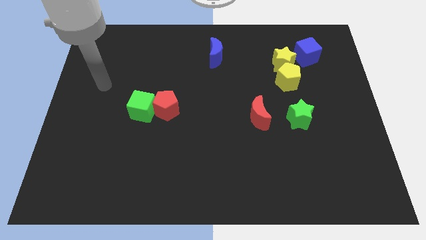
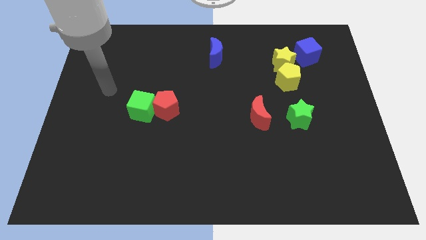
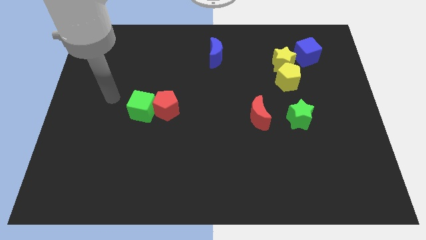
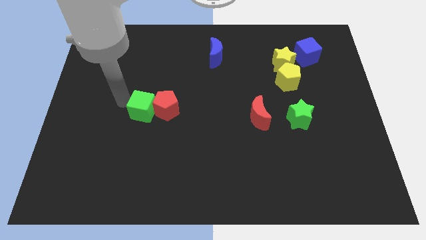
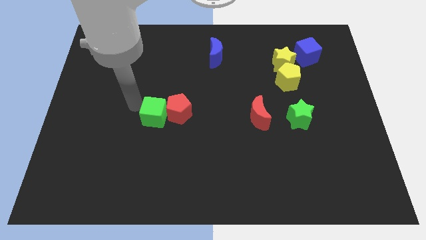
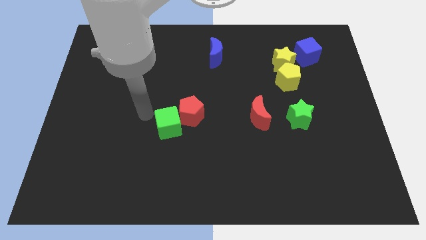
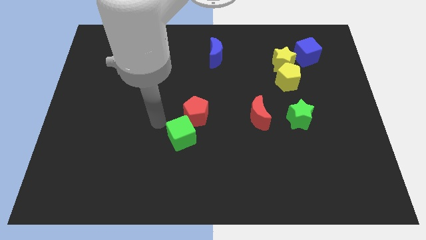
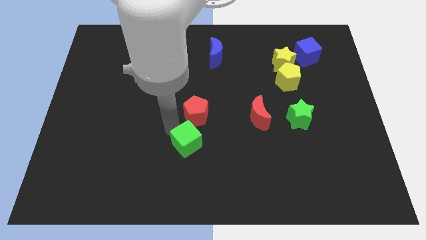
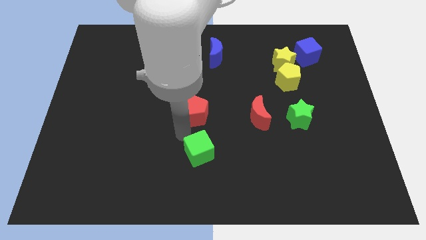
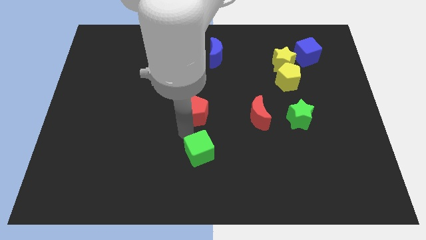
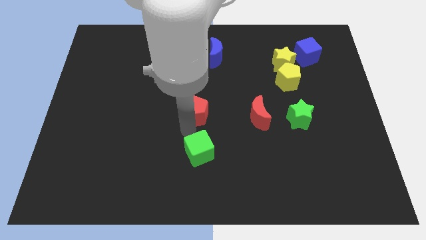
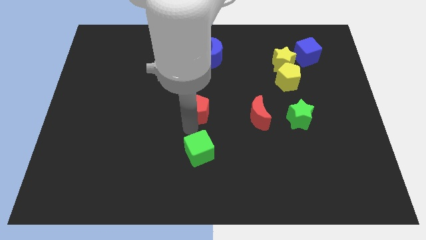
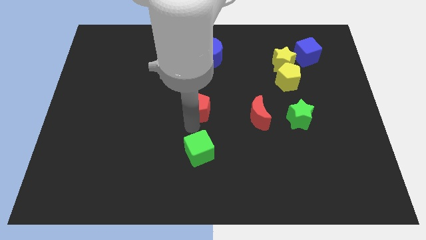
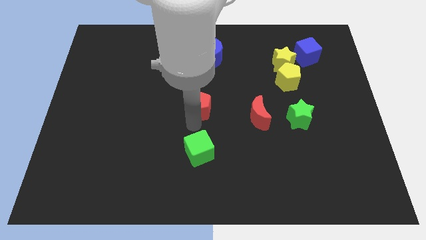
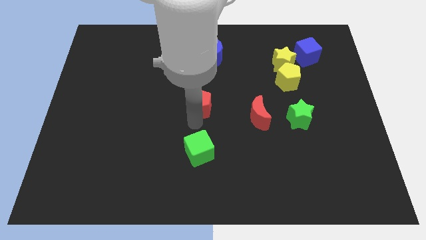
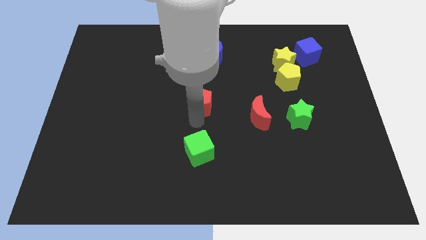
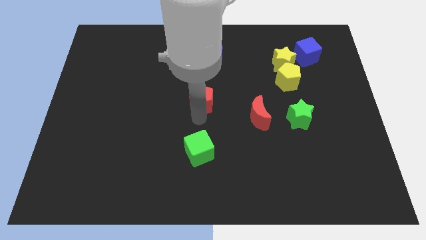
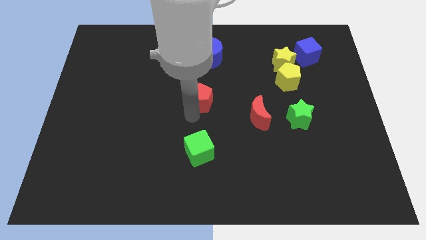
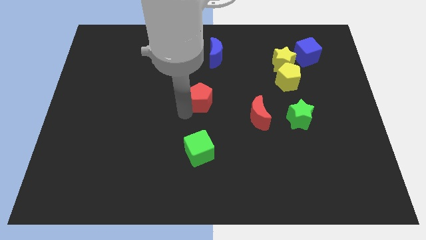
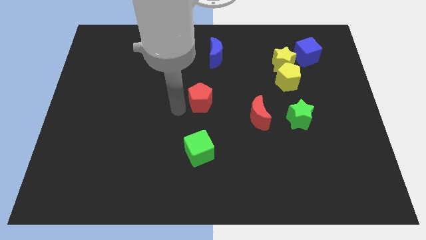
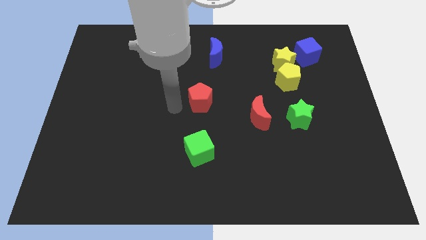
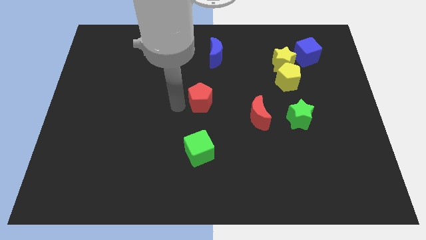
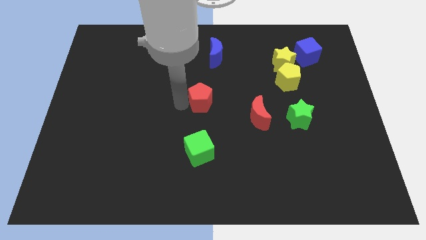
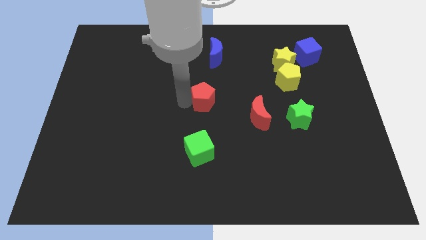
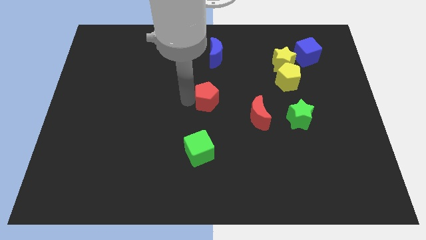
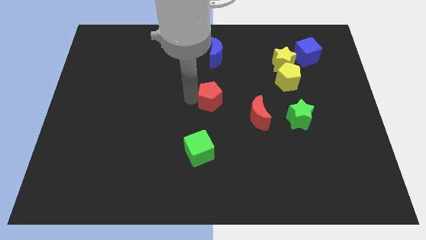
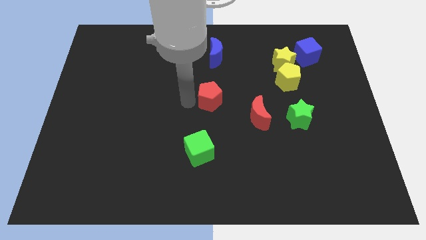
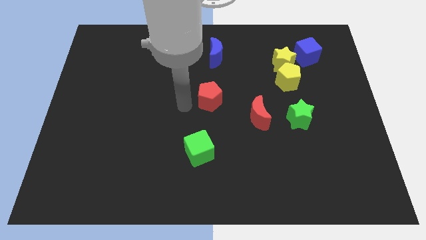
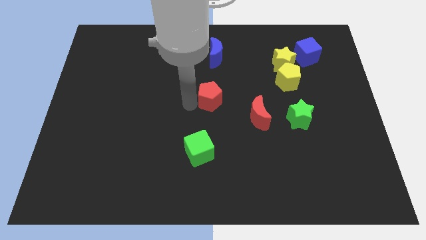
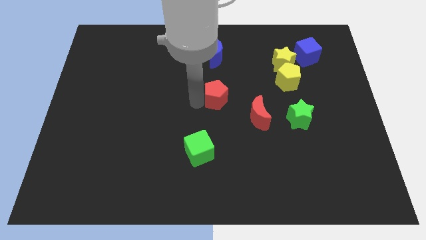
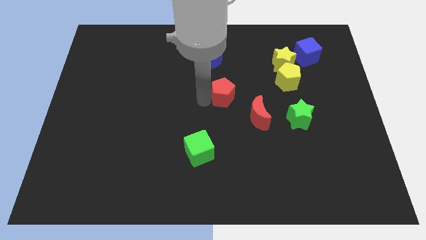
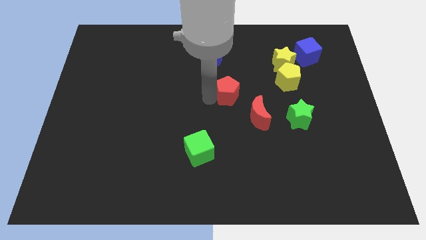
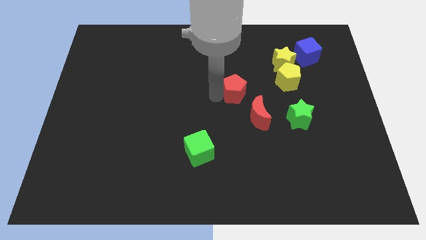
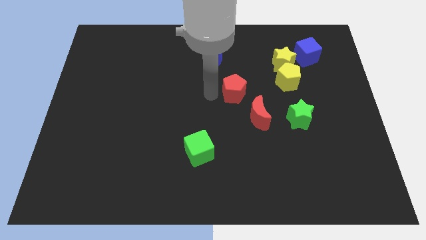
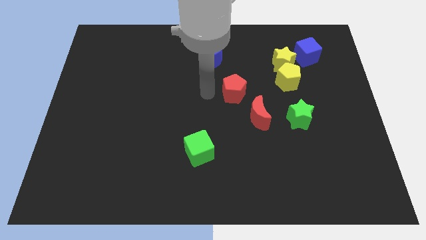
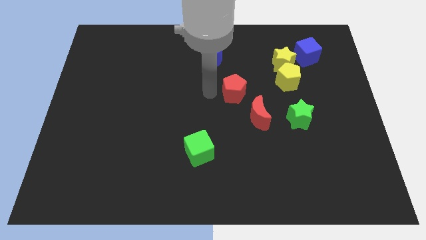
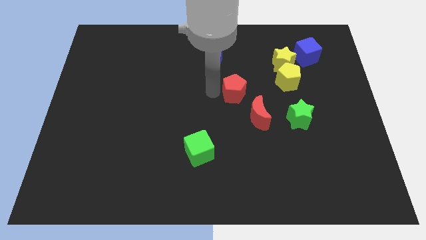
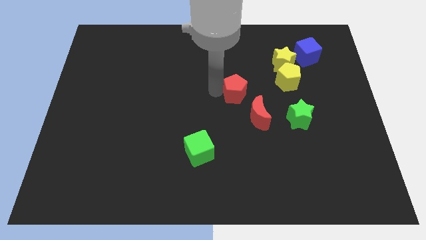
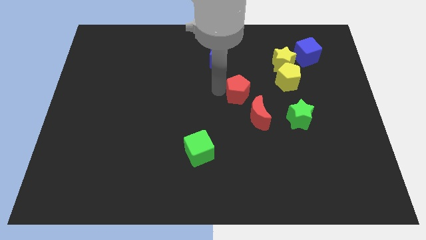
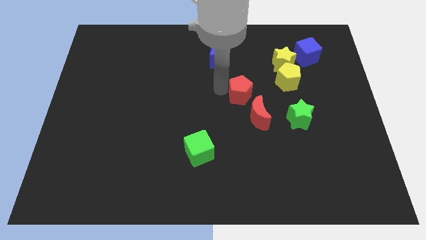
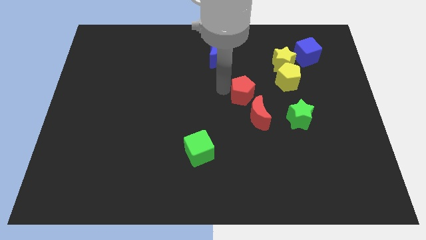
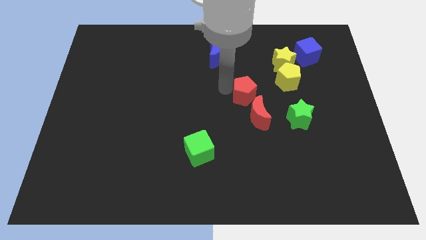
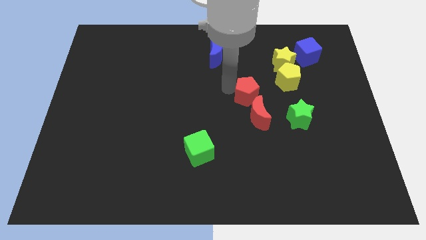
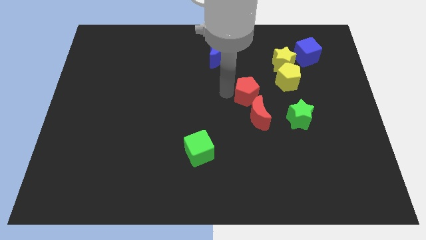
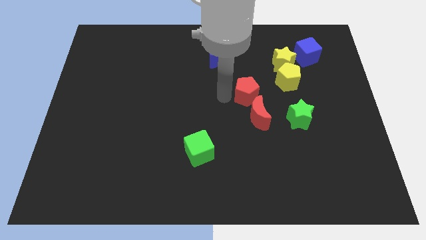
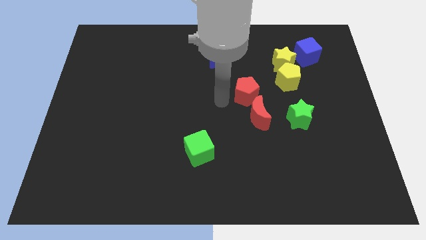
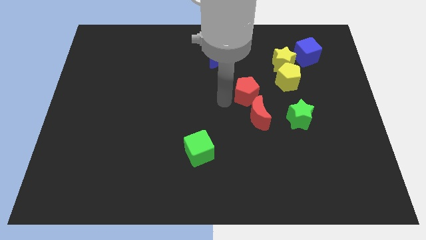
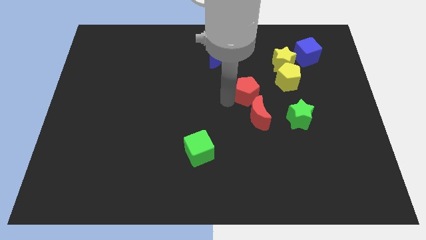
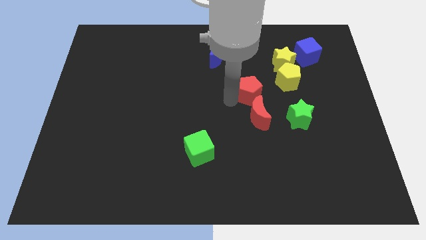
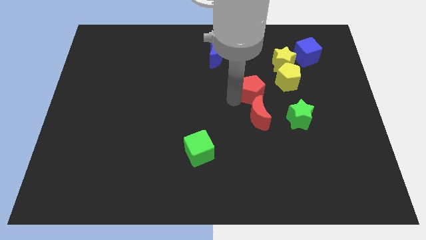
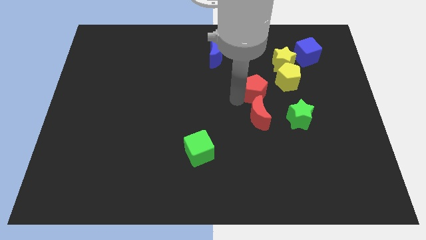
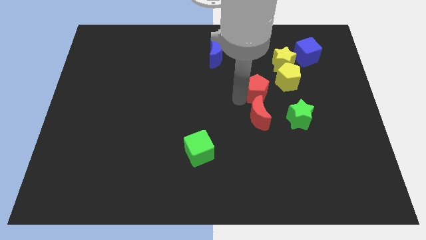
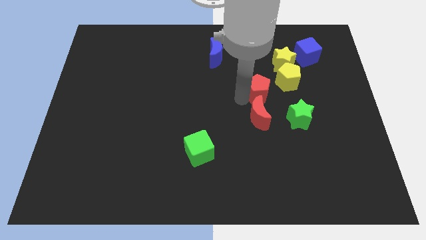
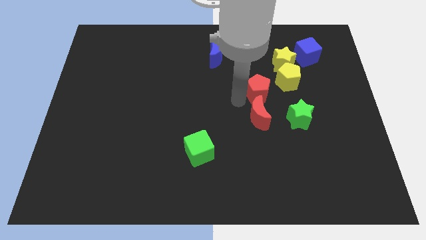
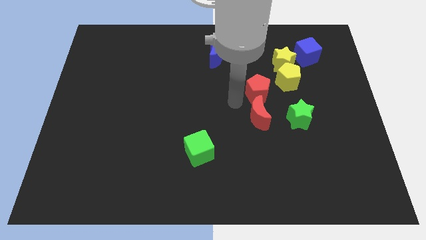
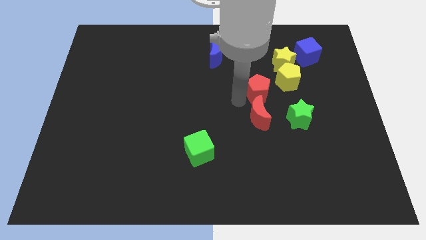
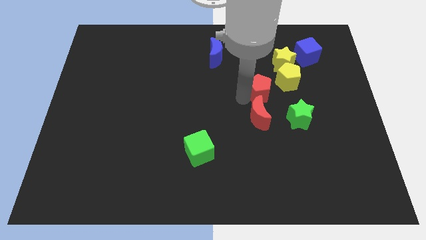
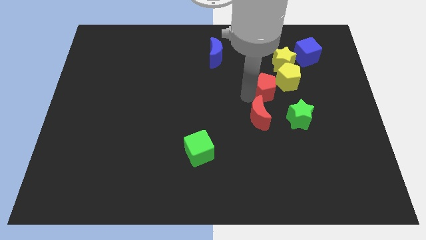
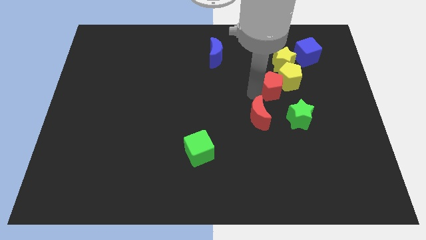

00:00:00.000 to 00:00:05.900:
move the red pentagon next to the yellow pentagon

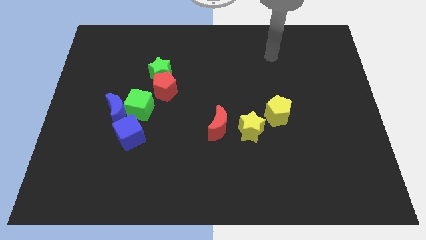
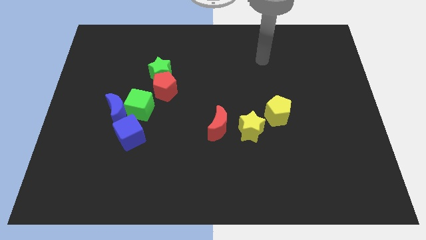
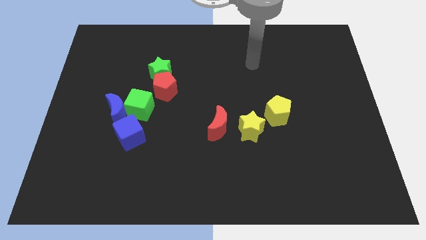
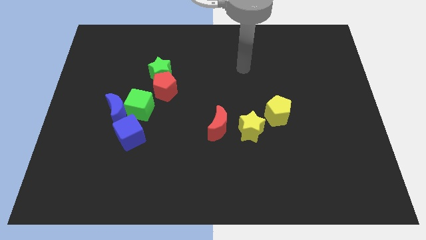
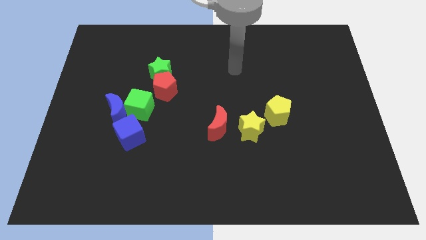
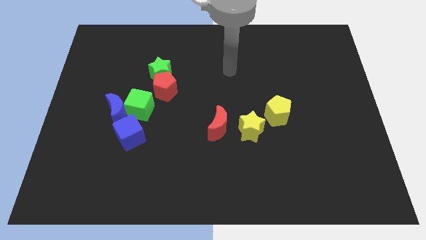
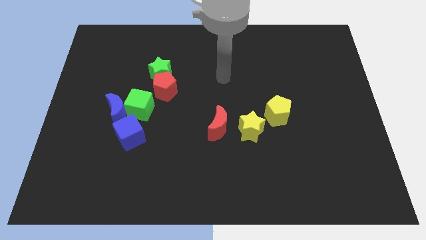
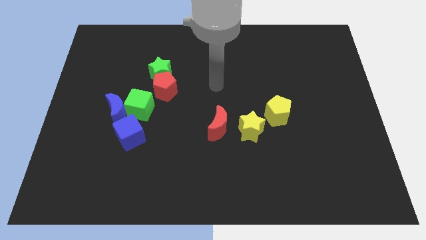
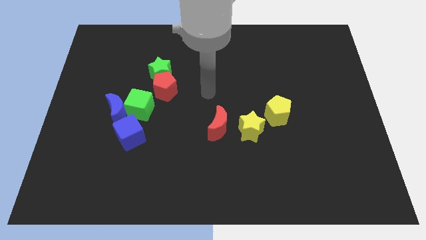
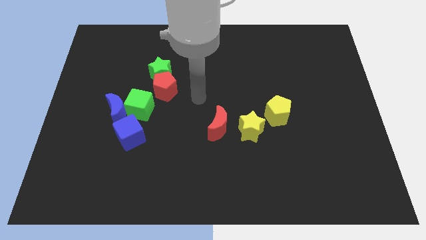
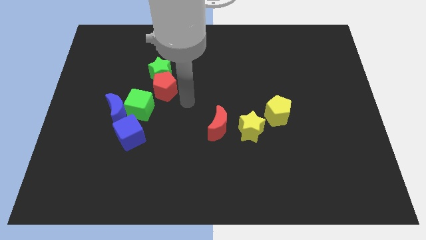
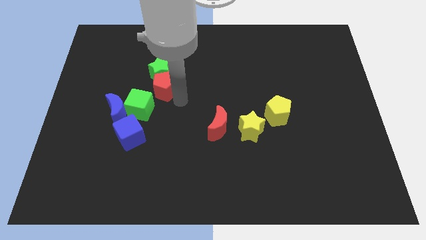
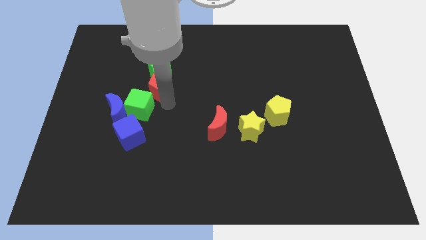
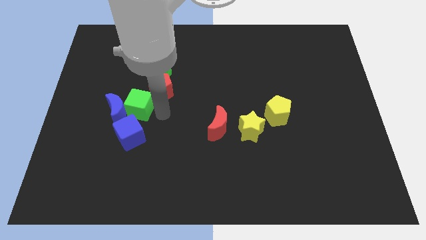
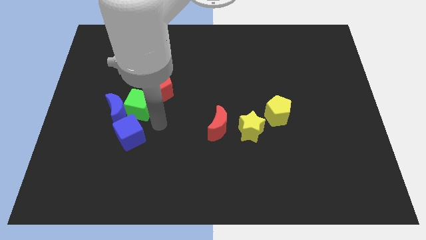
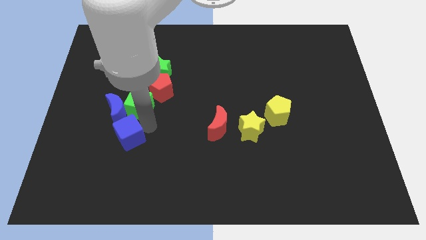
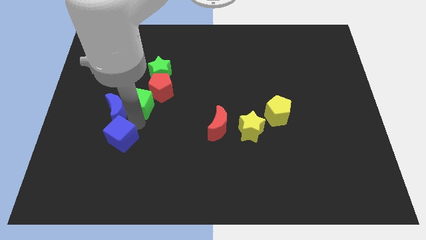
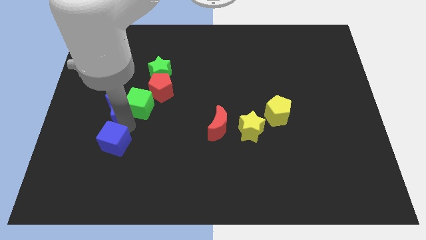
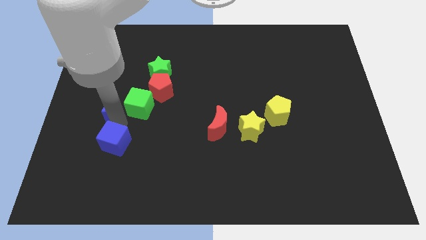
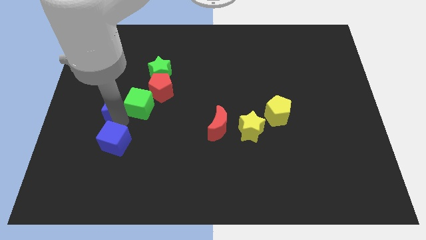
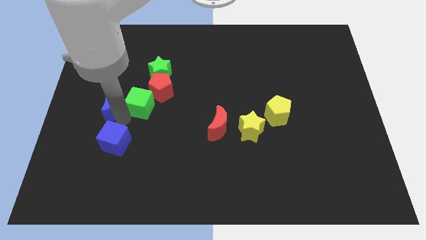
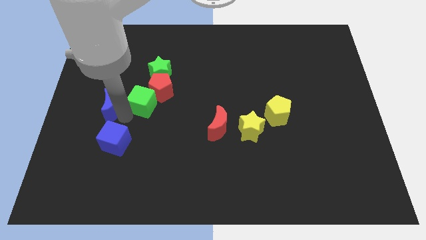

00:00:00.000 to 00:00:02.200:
put the green cube next to the red pentagon
